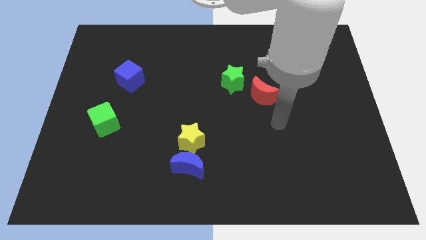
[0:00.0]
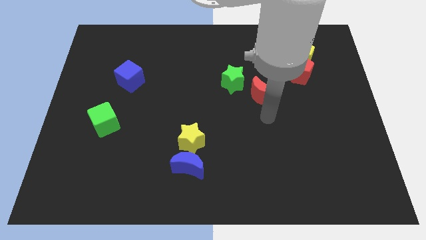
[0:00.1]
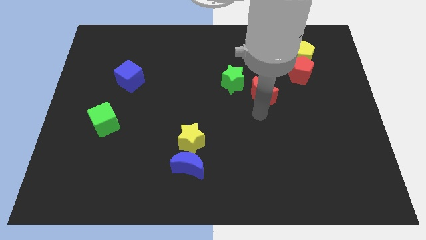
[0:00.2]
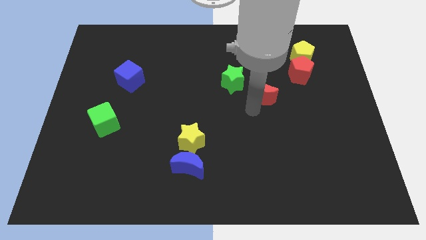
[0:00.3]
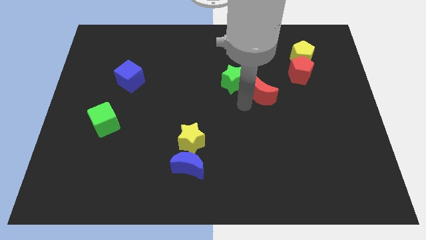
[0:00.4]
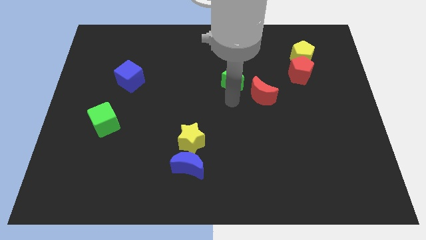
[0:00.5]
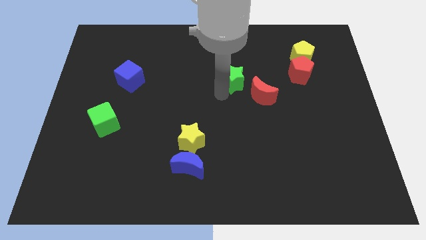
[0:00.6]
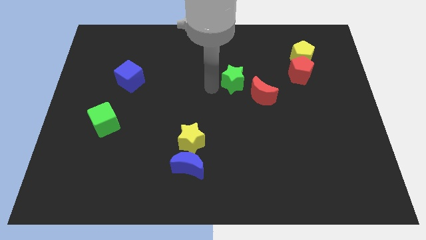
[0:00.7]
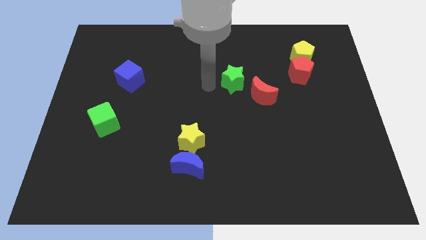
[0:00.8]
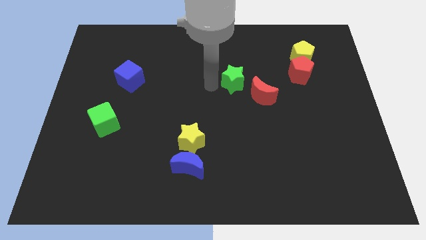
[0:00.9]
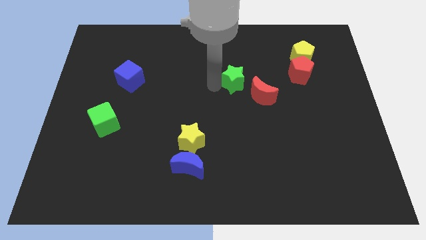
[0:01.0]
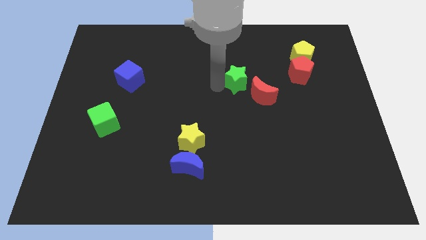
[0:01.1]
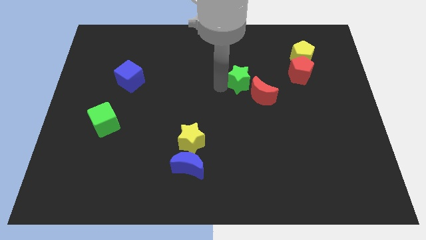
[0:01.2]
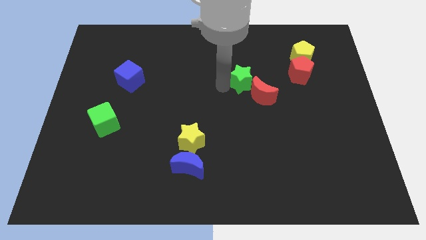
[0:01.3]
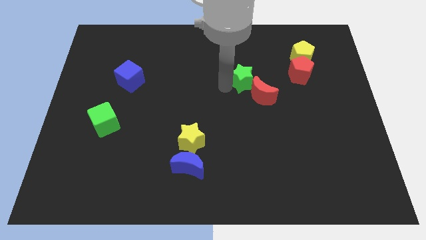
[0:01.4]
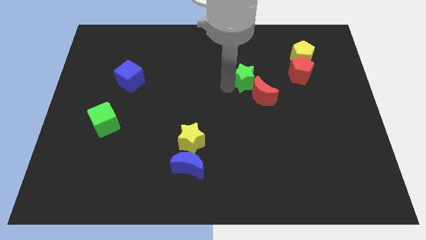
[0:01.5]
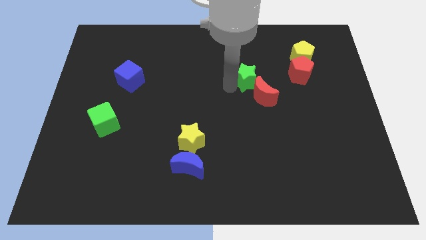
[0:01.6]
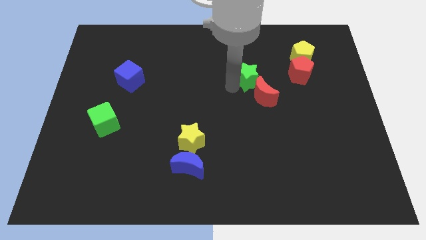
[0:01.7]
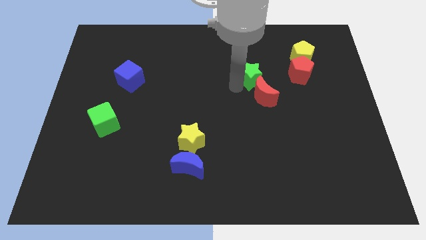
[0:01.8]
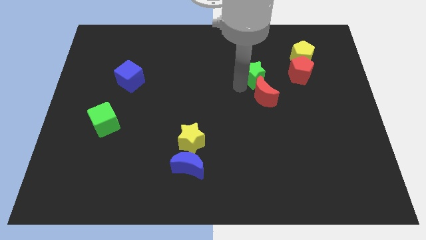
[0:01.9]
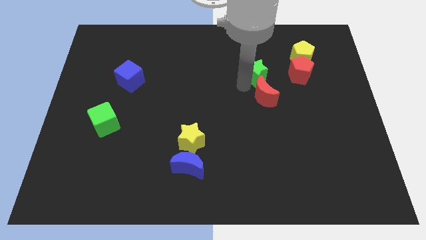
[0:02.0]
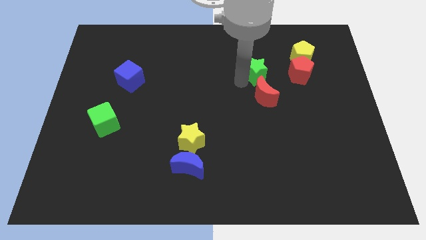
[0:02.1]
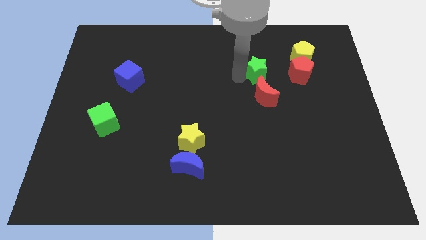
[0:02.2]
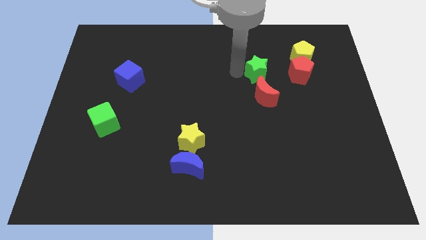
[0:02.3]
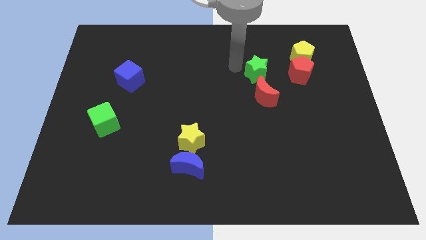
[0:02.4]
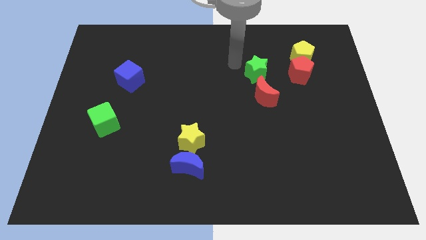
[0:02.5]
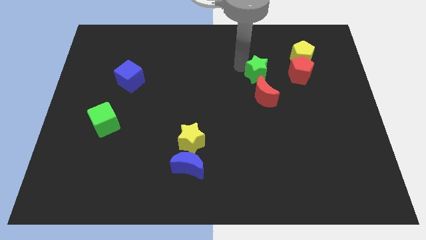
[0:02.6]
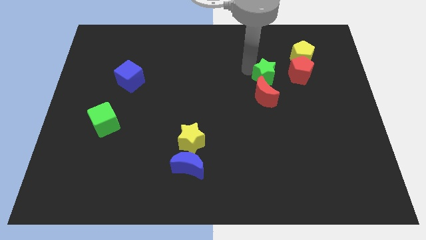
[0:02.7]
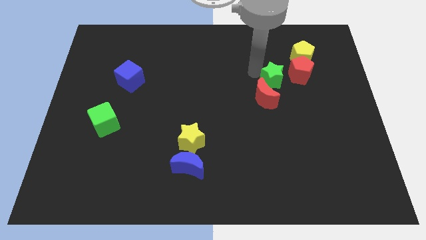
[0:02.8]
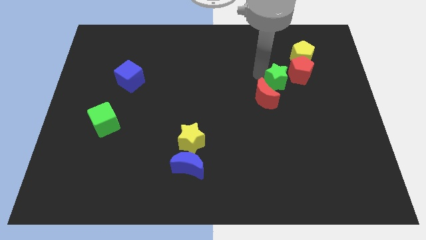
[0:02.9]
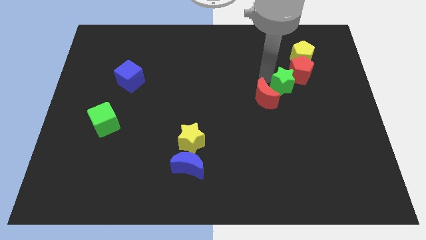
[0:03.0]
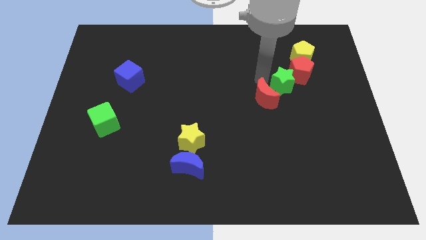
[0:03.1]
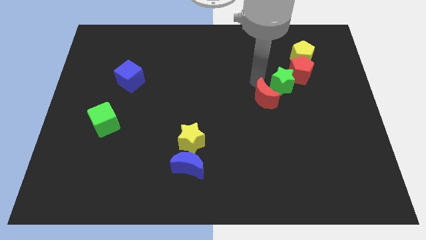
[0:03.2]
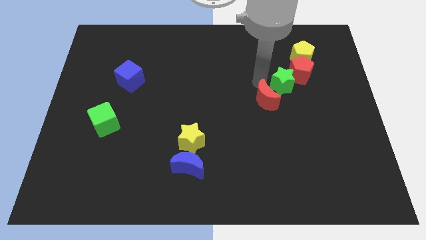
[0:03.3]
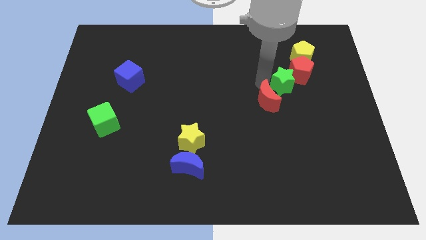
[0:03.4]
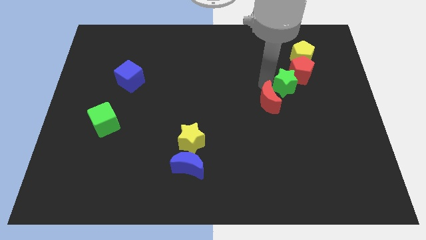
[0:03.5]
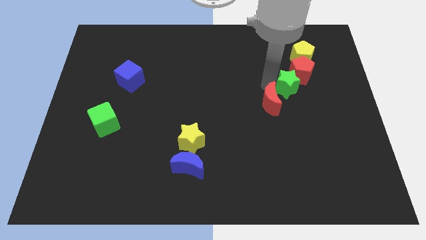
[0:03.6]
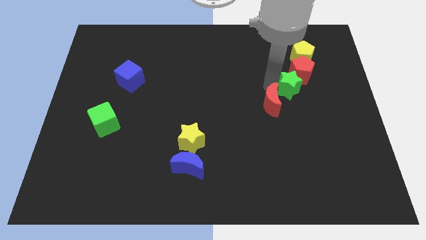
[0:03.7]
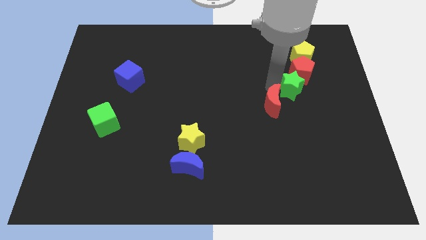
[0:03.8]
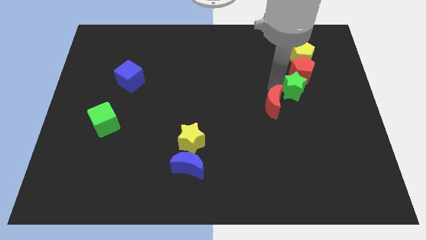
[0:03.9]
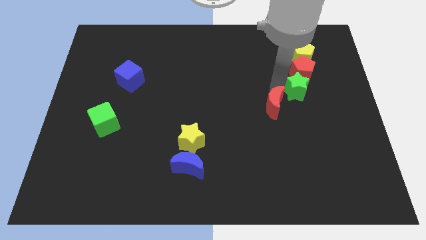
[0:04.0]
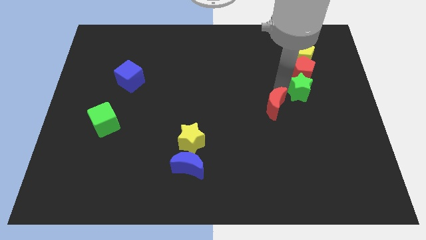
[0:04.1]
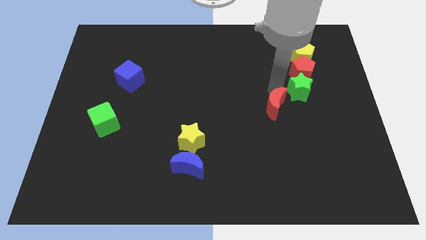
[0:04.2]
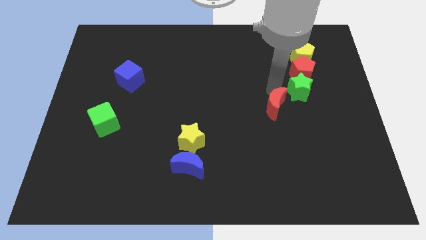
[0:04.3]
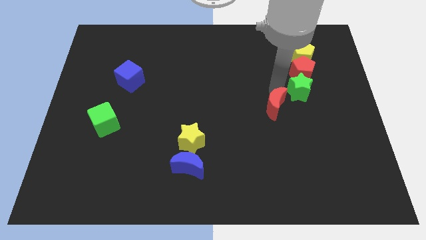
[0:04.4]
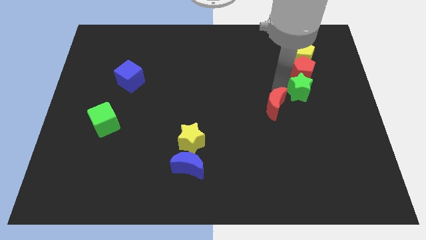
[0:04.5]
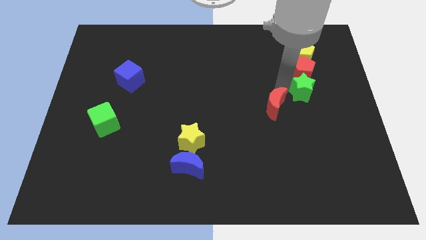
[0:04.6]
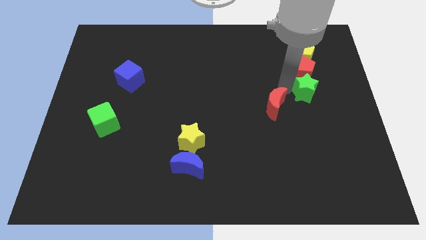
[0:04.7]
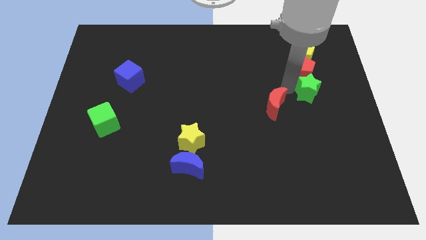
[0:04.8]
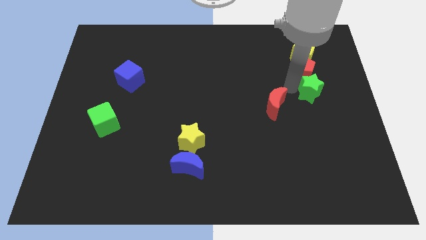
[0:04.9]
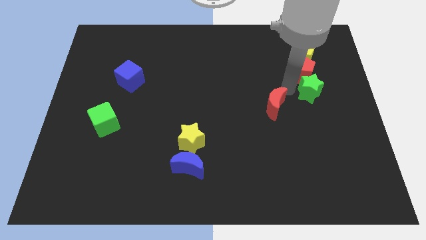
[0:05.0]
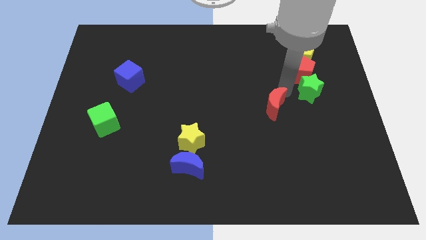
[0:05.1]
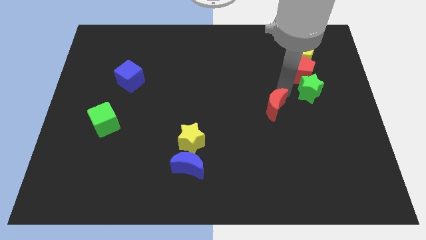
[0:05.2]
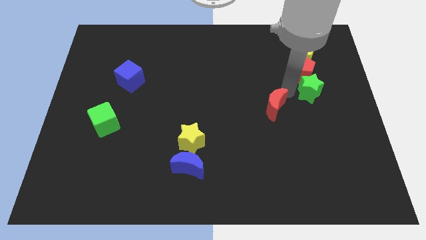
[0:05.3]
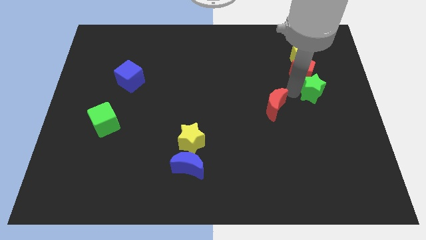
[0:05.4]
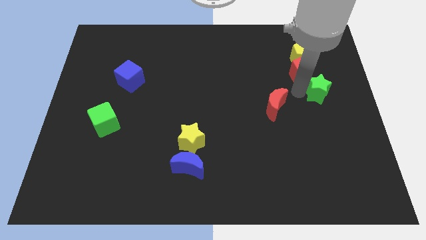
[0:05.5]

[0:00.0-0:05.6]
move the green star to the right side of the board

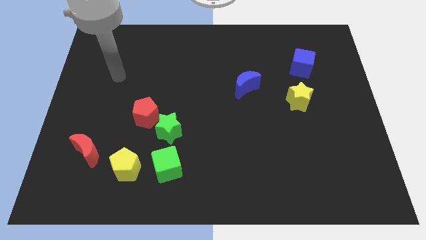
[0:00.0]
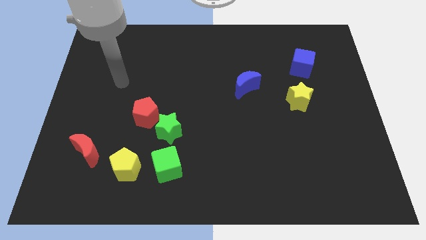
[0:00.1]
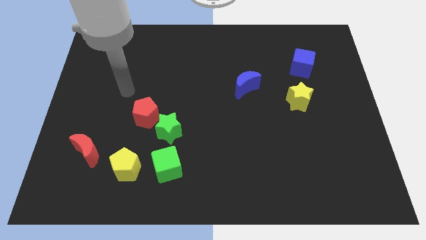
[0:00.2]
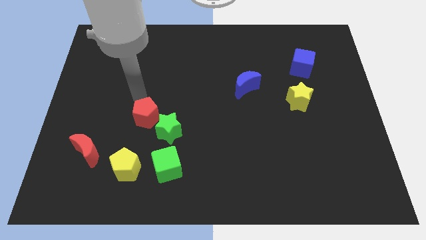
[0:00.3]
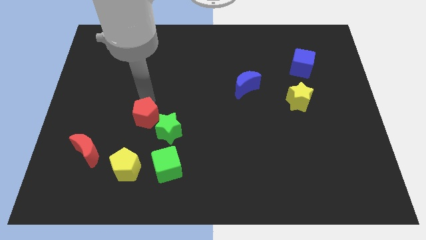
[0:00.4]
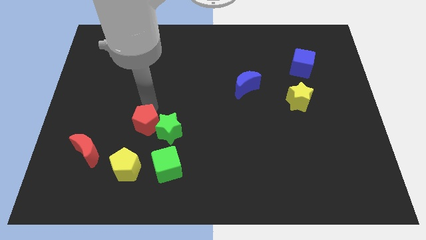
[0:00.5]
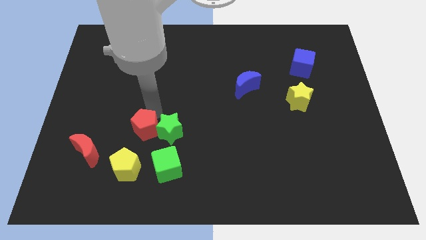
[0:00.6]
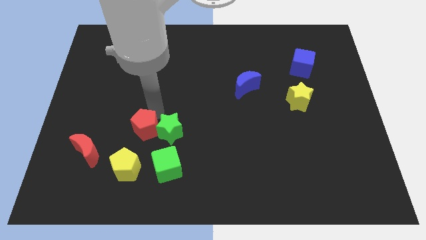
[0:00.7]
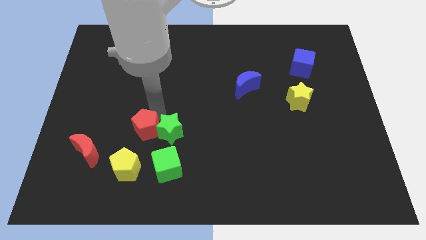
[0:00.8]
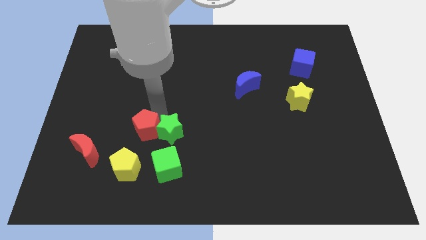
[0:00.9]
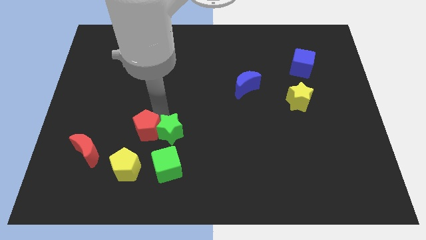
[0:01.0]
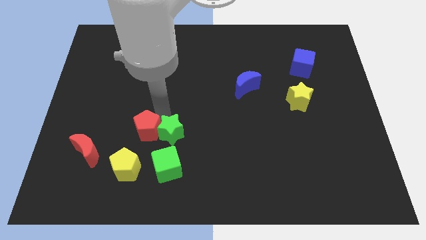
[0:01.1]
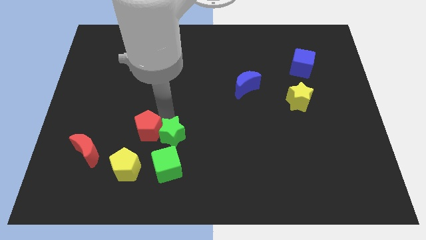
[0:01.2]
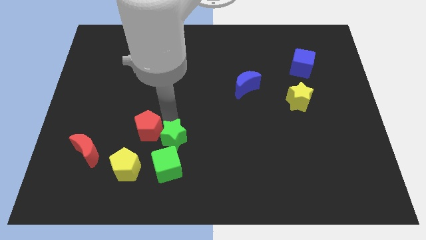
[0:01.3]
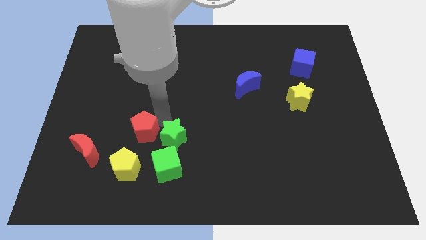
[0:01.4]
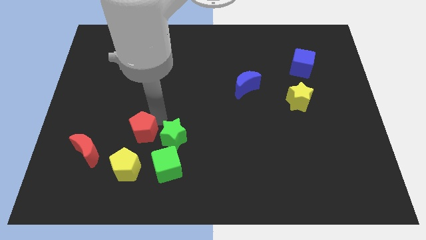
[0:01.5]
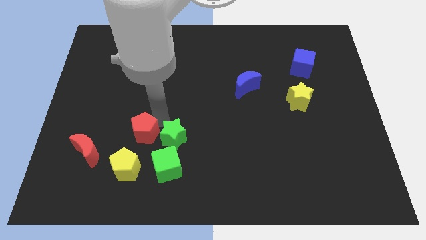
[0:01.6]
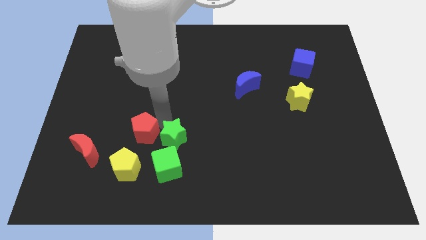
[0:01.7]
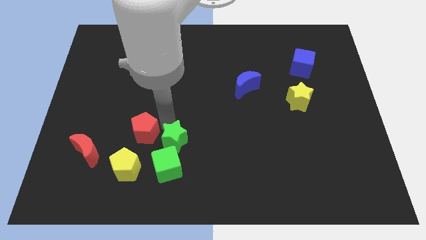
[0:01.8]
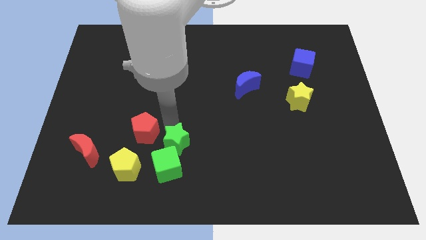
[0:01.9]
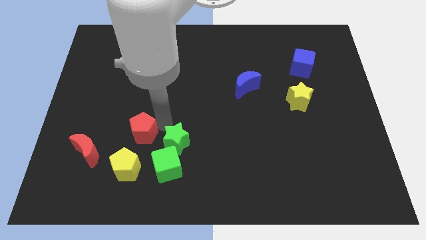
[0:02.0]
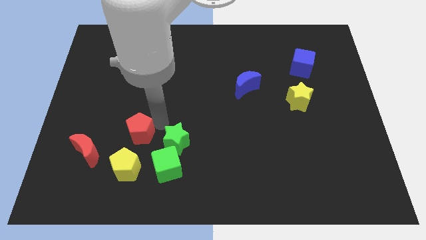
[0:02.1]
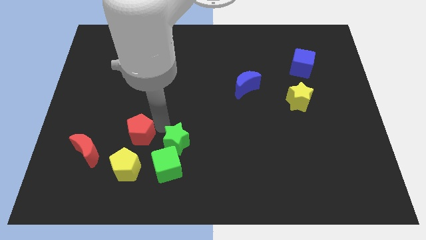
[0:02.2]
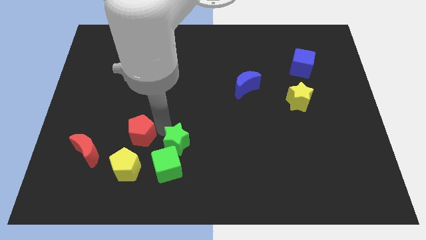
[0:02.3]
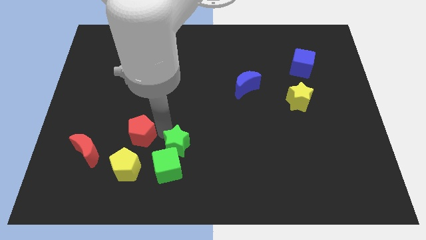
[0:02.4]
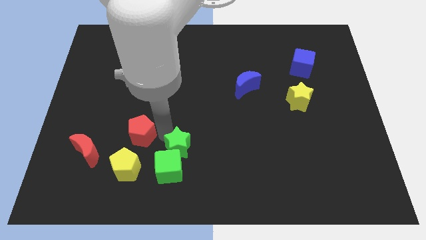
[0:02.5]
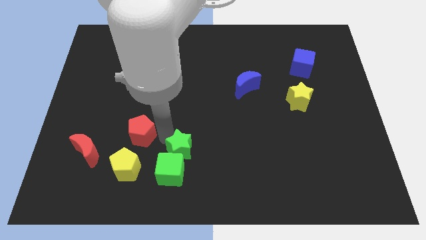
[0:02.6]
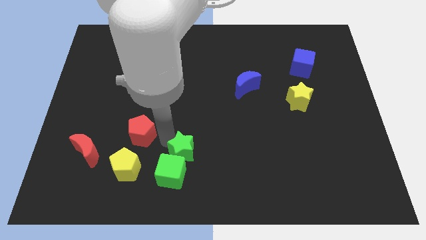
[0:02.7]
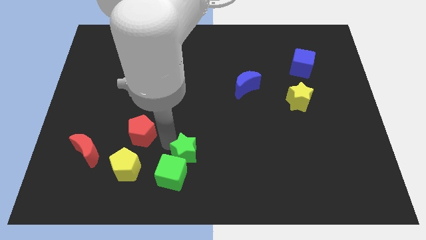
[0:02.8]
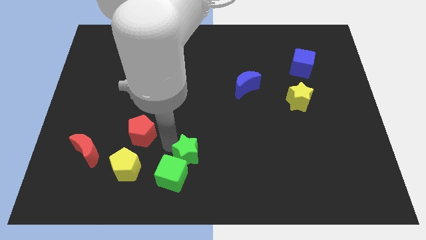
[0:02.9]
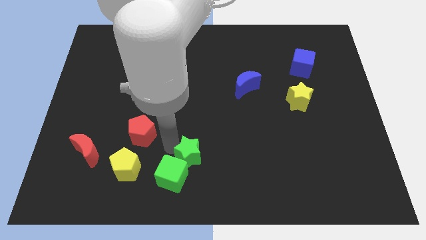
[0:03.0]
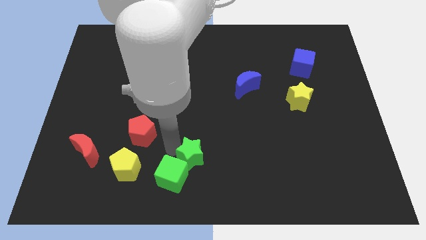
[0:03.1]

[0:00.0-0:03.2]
move the green star to the bottom side
